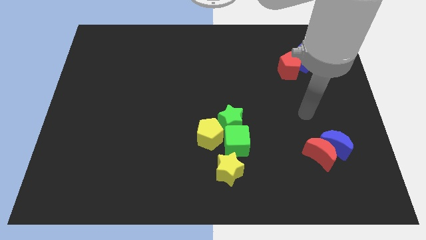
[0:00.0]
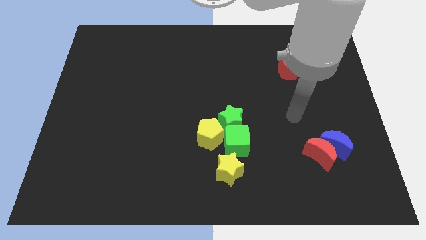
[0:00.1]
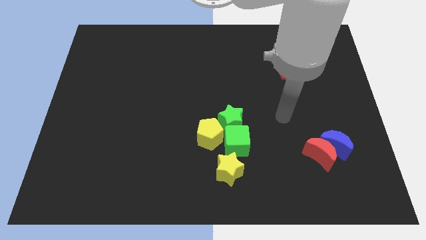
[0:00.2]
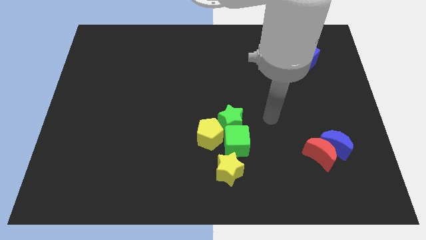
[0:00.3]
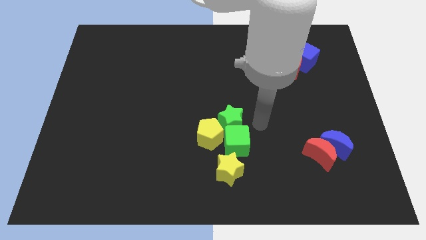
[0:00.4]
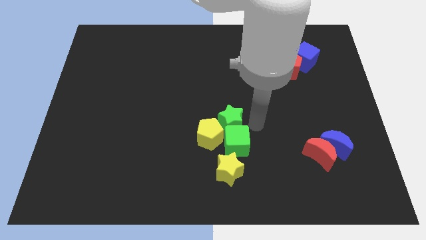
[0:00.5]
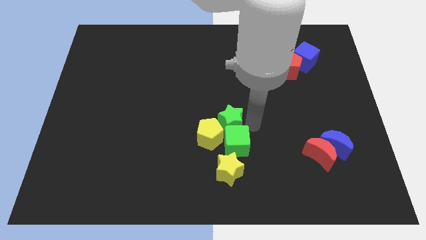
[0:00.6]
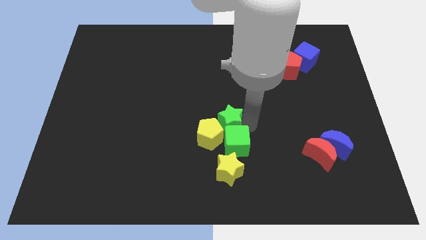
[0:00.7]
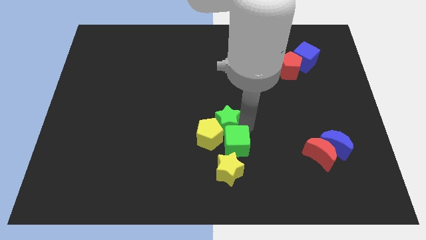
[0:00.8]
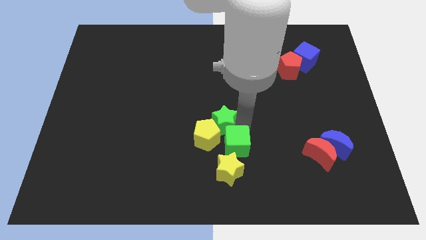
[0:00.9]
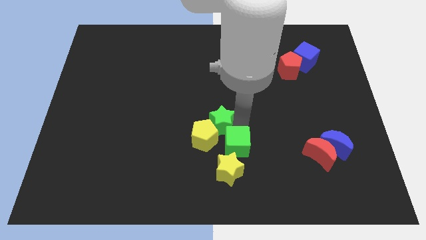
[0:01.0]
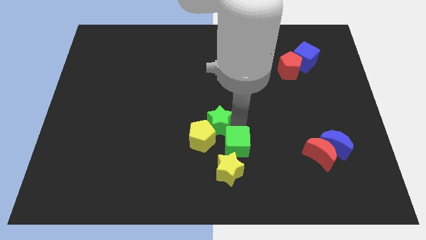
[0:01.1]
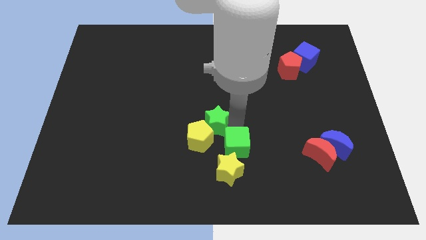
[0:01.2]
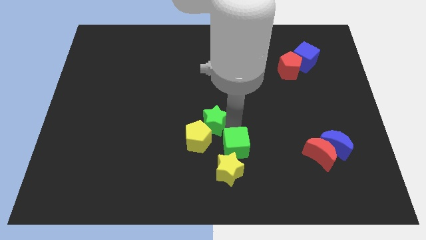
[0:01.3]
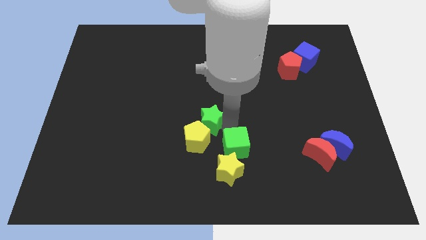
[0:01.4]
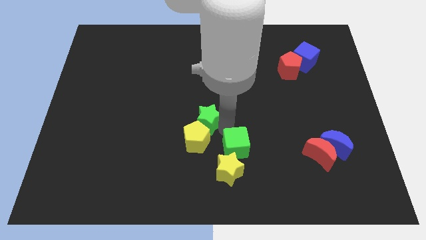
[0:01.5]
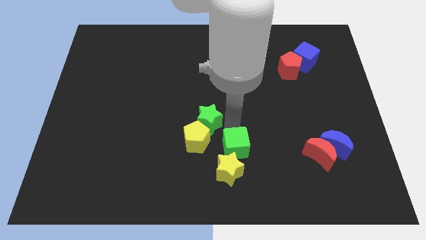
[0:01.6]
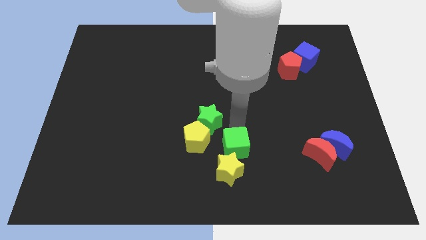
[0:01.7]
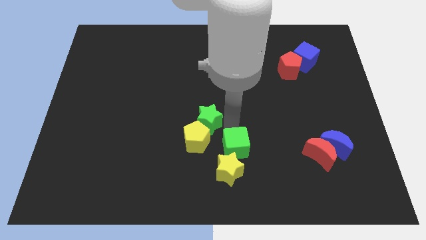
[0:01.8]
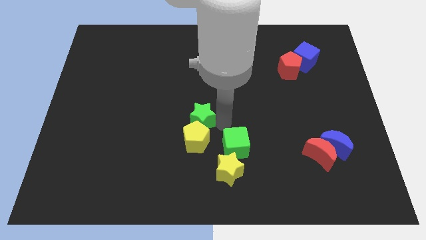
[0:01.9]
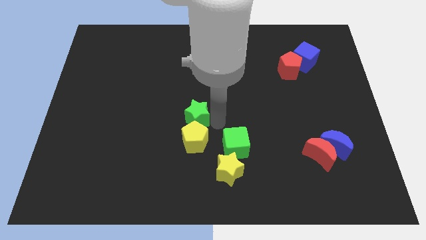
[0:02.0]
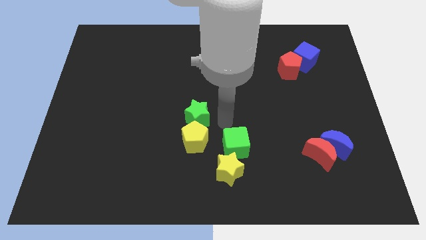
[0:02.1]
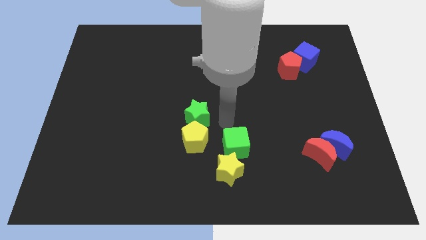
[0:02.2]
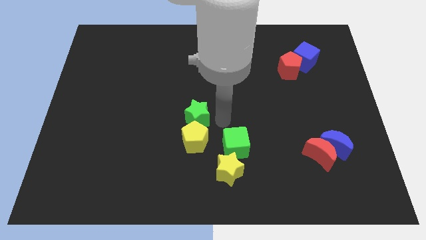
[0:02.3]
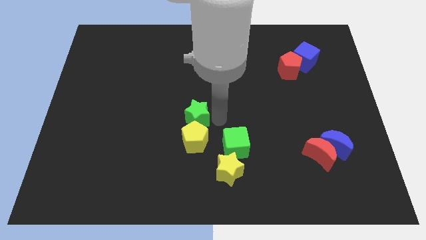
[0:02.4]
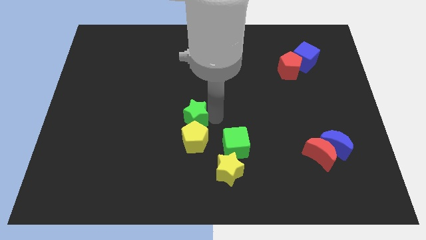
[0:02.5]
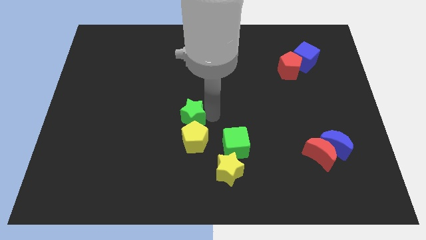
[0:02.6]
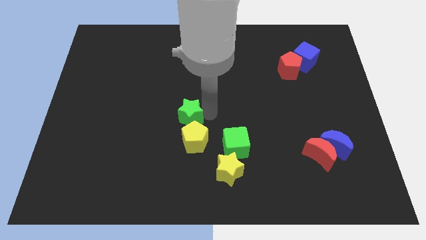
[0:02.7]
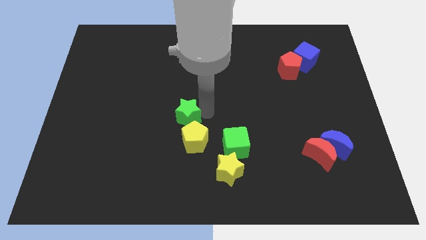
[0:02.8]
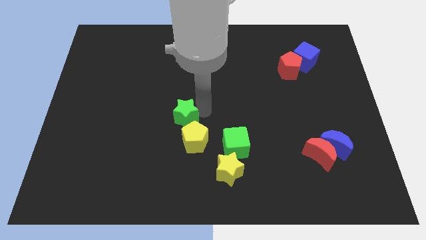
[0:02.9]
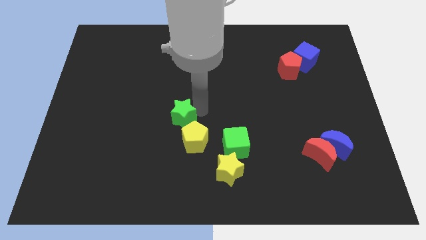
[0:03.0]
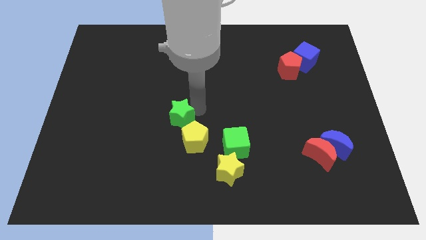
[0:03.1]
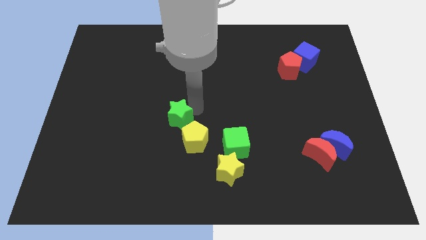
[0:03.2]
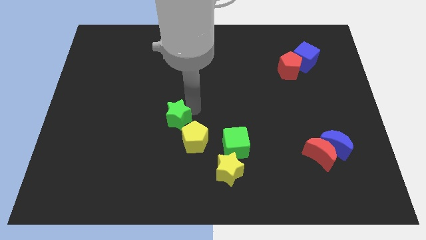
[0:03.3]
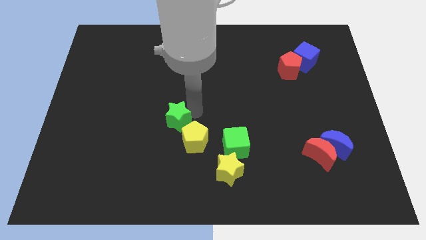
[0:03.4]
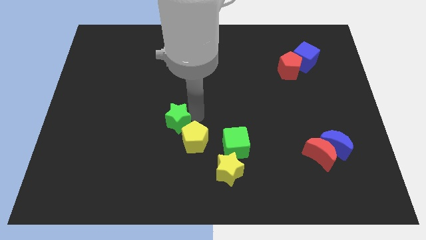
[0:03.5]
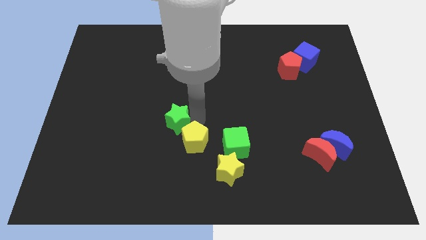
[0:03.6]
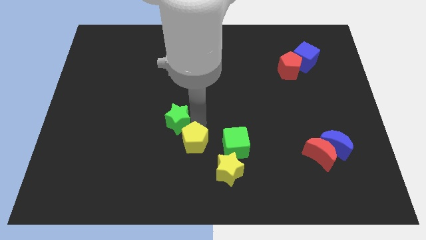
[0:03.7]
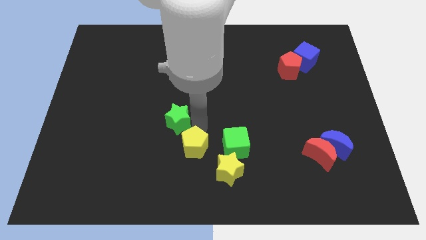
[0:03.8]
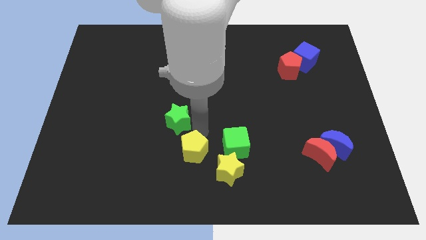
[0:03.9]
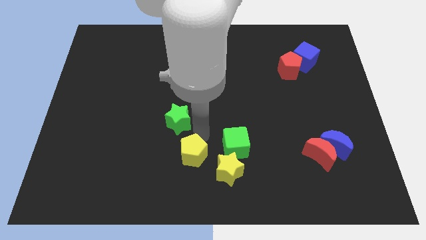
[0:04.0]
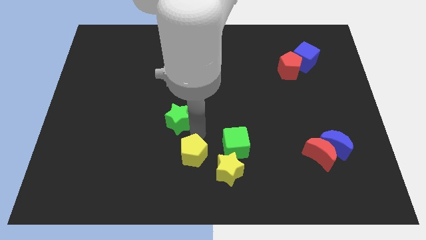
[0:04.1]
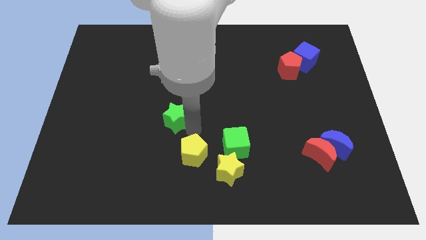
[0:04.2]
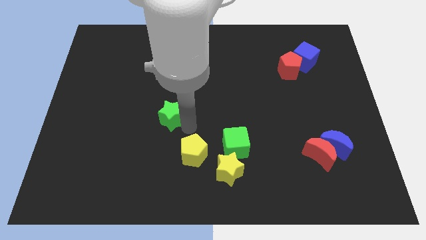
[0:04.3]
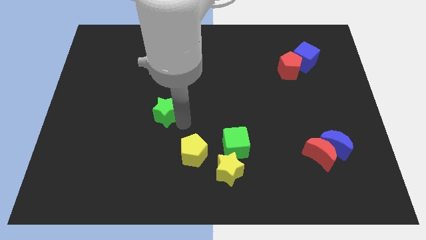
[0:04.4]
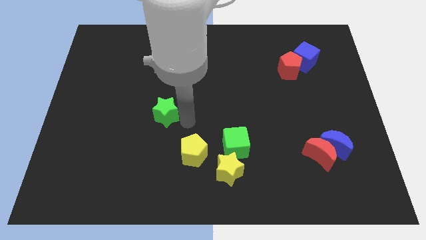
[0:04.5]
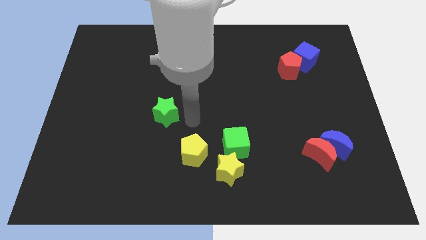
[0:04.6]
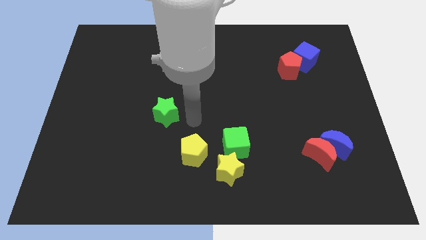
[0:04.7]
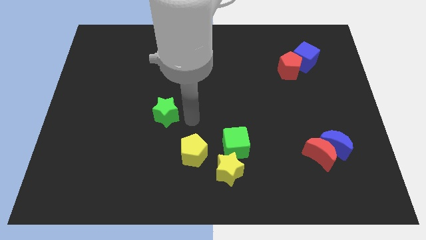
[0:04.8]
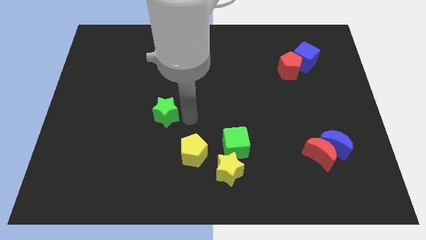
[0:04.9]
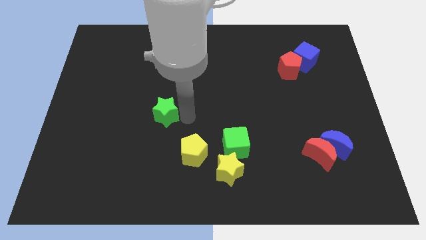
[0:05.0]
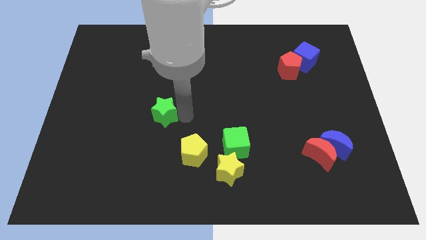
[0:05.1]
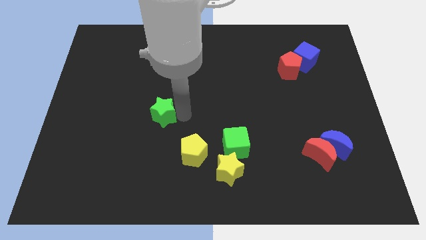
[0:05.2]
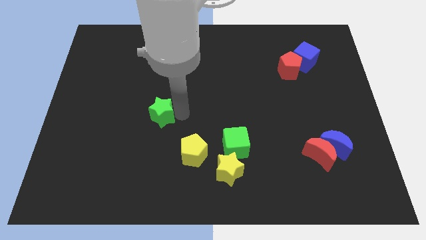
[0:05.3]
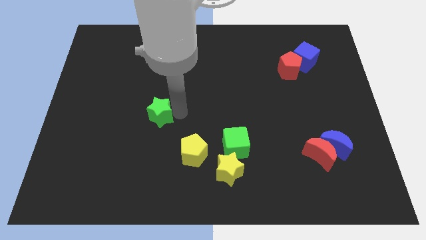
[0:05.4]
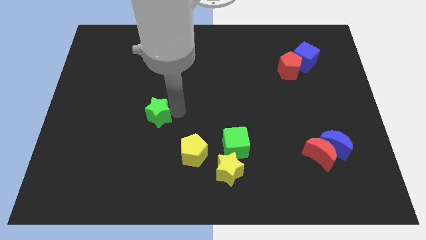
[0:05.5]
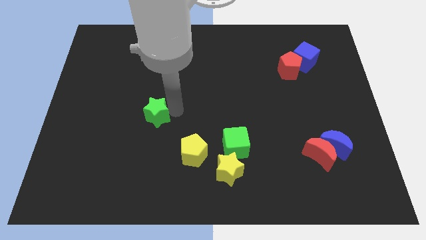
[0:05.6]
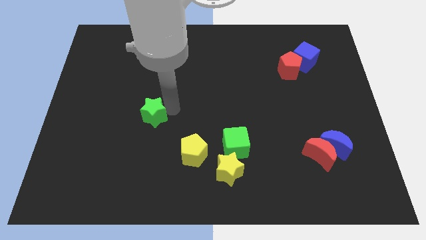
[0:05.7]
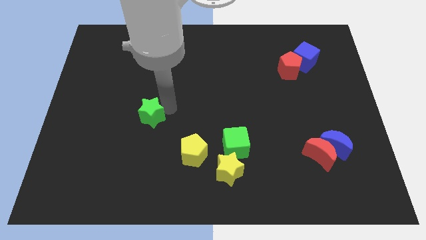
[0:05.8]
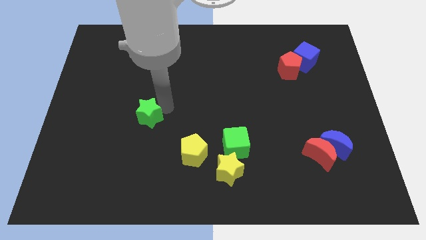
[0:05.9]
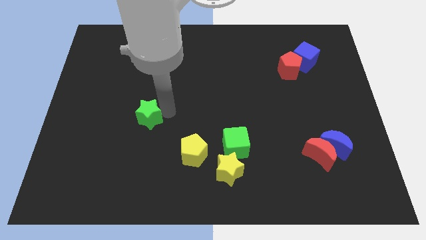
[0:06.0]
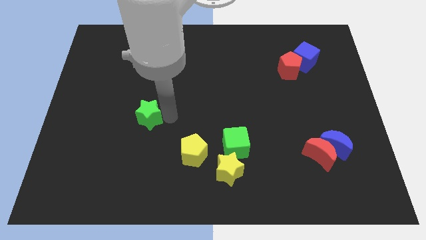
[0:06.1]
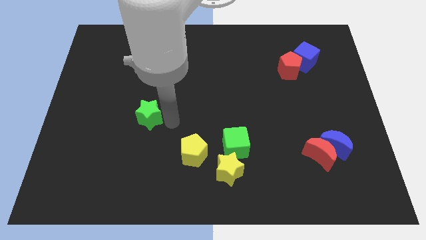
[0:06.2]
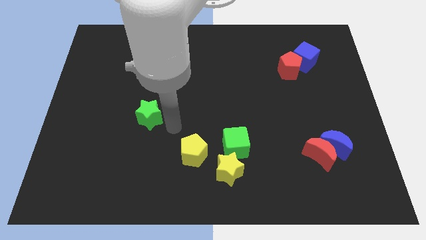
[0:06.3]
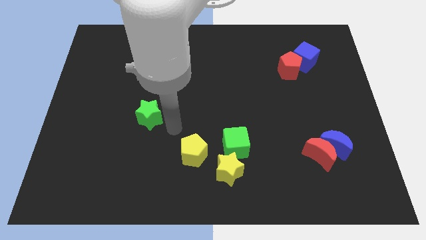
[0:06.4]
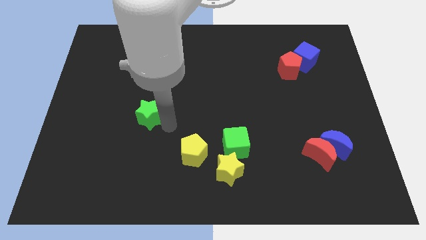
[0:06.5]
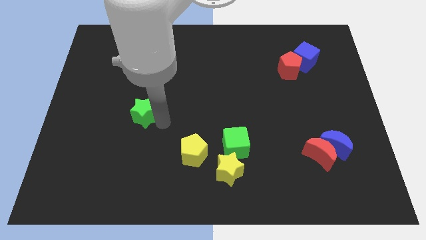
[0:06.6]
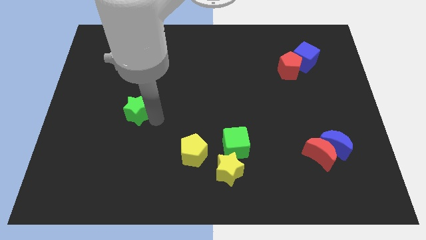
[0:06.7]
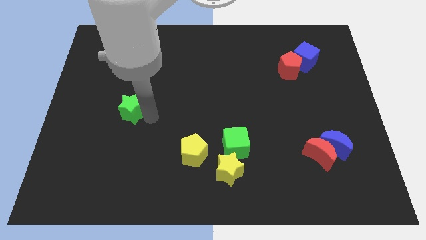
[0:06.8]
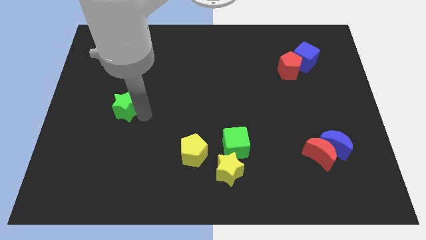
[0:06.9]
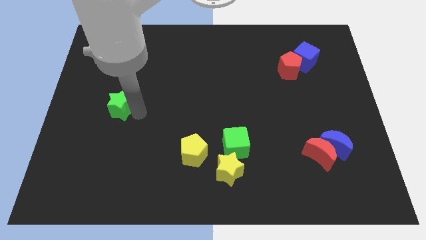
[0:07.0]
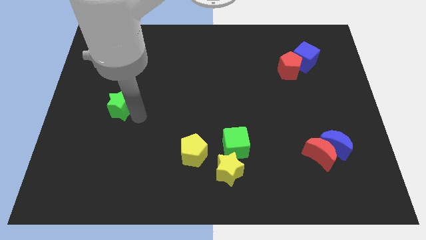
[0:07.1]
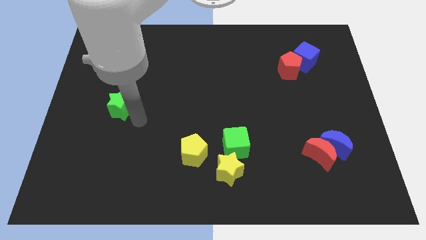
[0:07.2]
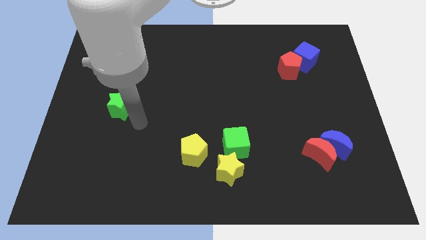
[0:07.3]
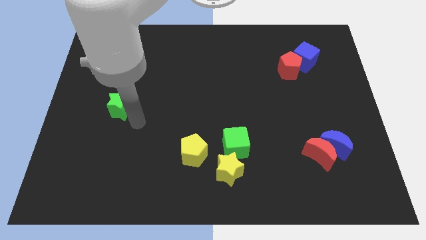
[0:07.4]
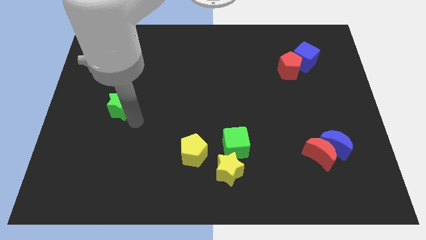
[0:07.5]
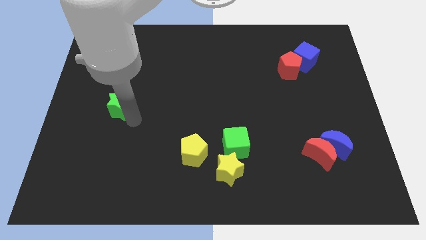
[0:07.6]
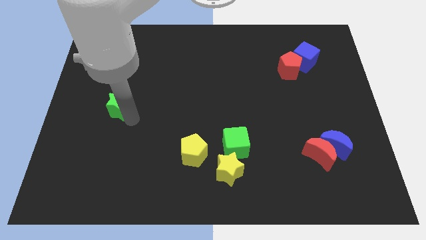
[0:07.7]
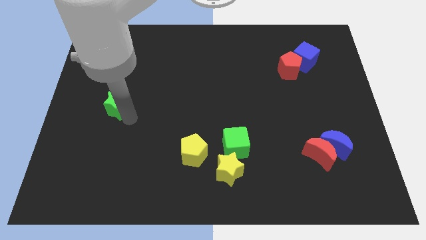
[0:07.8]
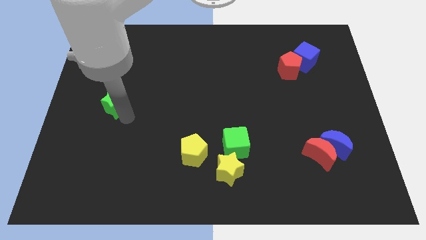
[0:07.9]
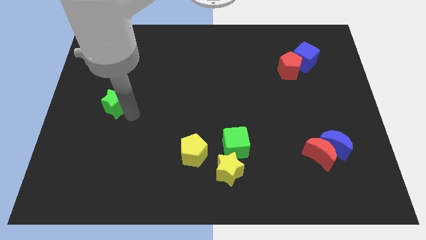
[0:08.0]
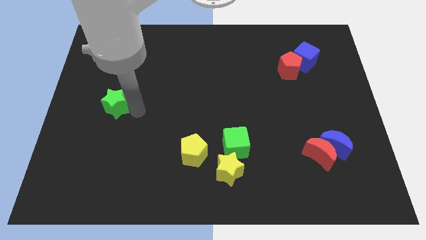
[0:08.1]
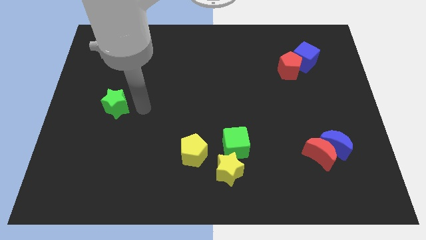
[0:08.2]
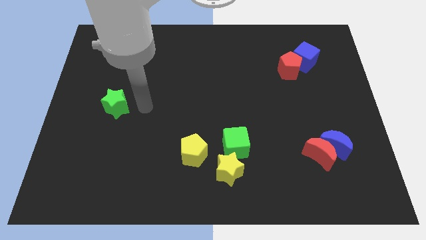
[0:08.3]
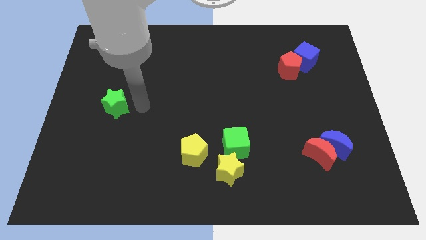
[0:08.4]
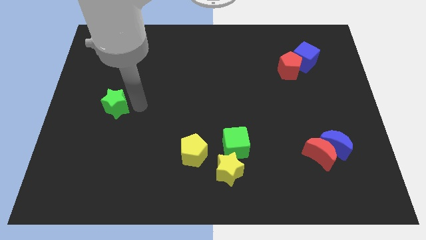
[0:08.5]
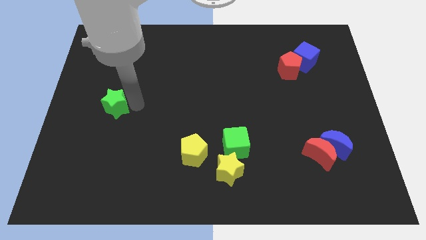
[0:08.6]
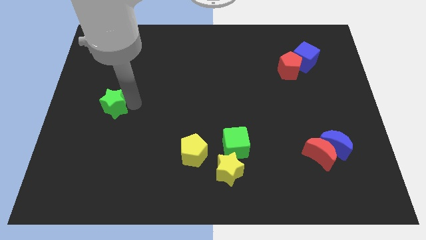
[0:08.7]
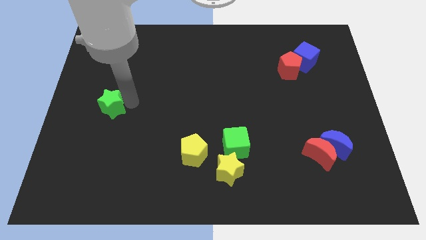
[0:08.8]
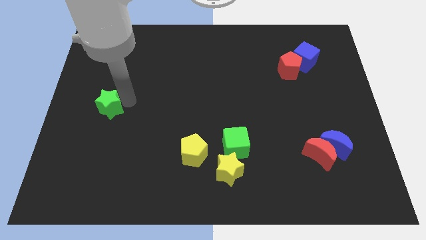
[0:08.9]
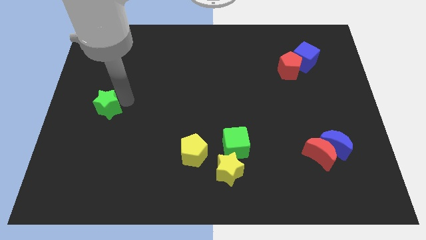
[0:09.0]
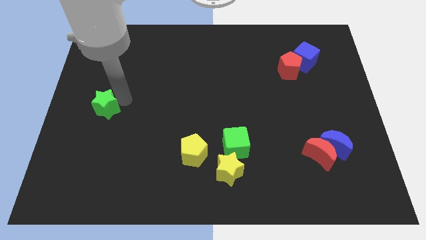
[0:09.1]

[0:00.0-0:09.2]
slide the green star to the center left
